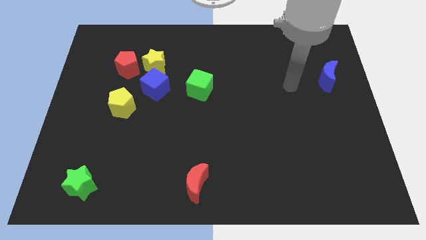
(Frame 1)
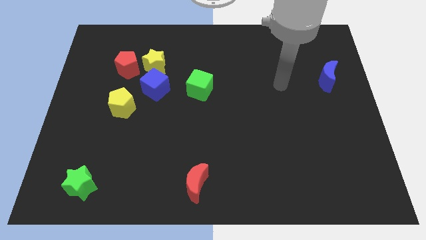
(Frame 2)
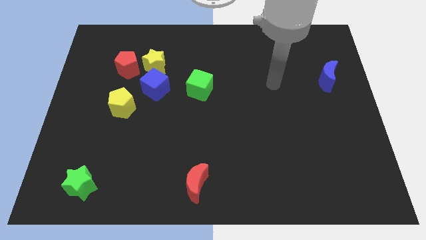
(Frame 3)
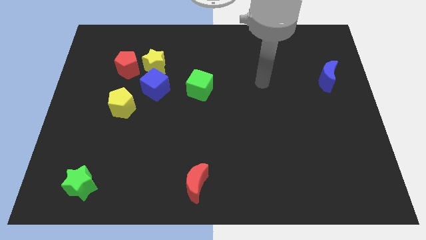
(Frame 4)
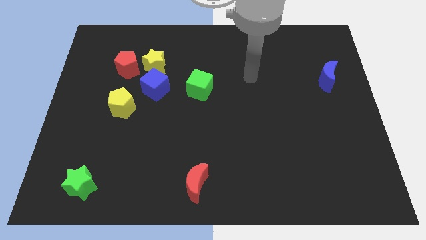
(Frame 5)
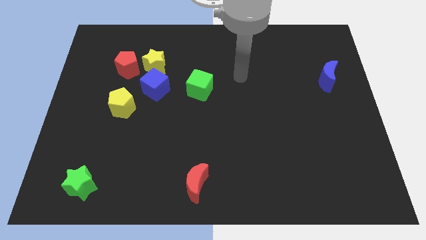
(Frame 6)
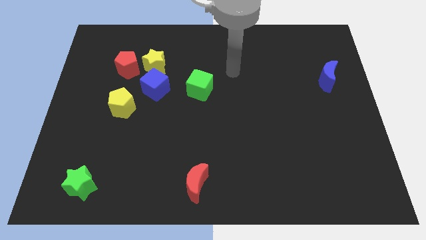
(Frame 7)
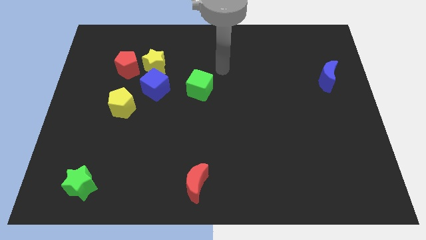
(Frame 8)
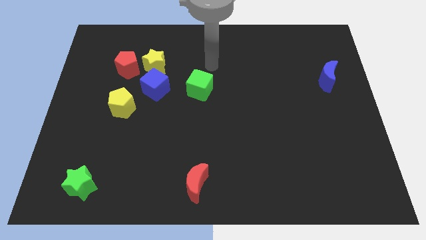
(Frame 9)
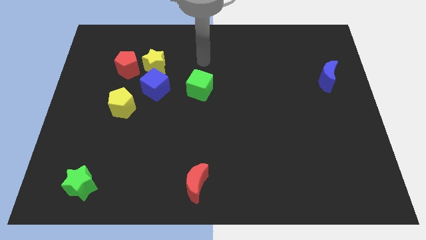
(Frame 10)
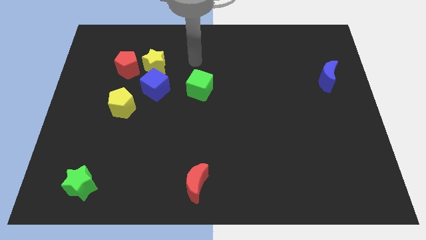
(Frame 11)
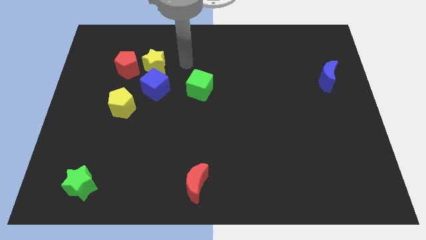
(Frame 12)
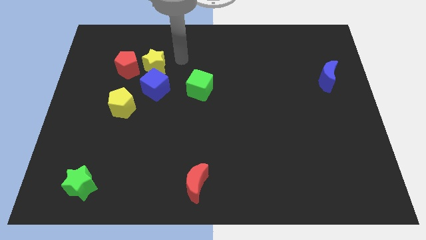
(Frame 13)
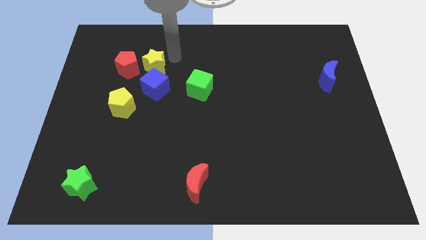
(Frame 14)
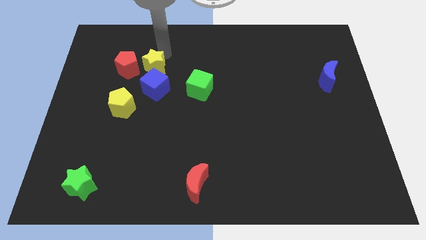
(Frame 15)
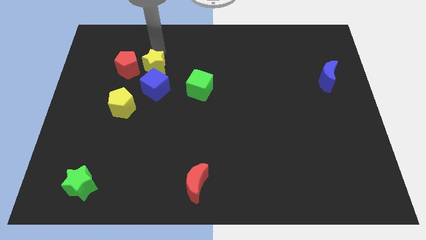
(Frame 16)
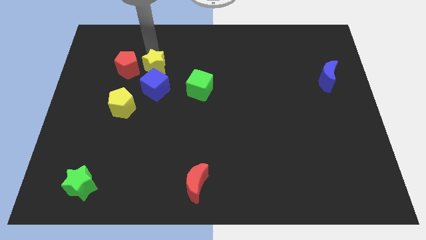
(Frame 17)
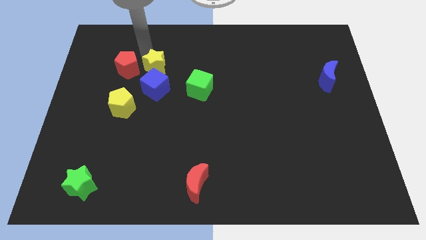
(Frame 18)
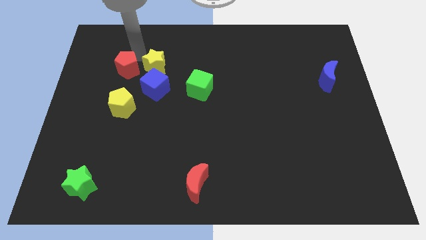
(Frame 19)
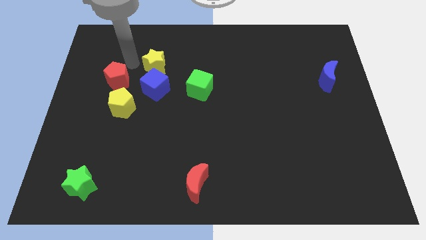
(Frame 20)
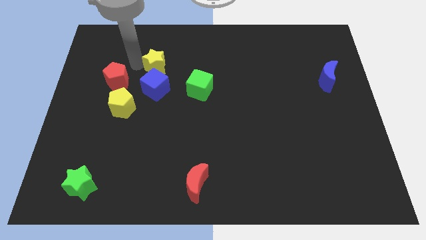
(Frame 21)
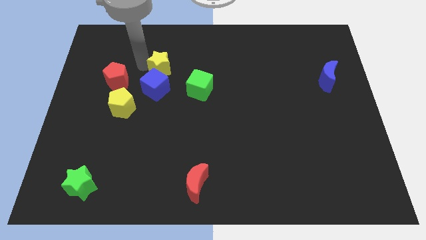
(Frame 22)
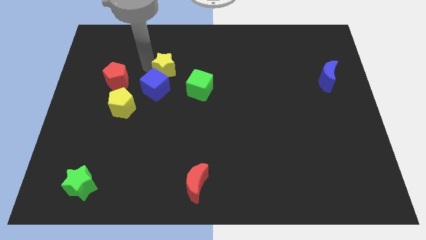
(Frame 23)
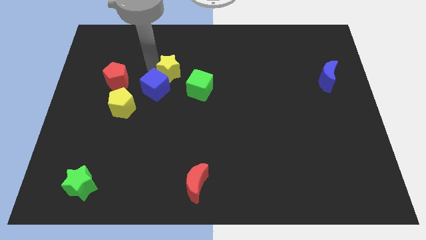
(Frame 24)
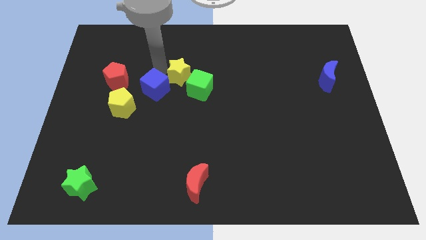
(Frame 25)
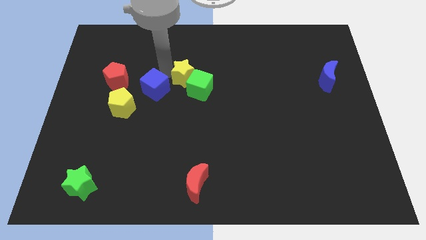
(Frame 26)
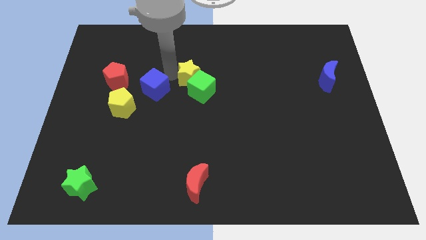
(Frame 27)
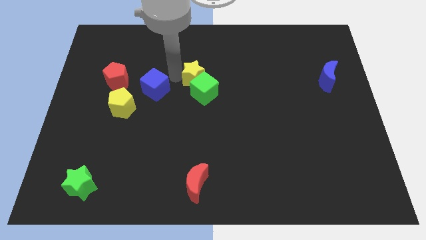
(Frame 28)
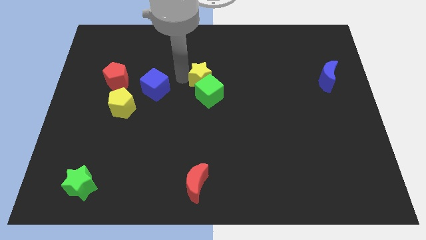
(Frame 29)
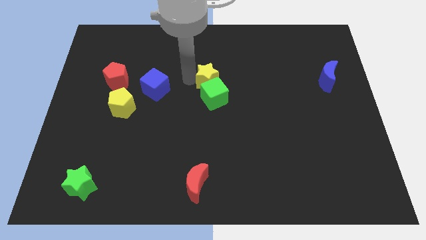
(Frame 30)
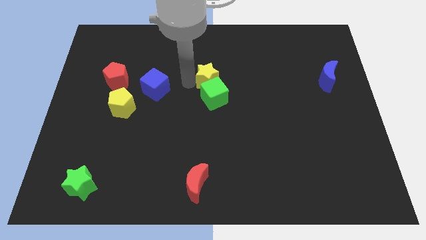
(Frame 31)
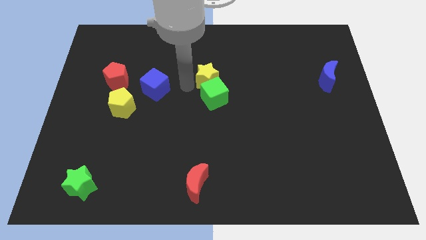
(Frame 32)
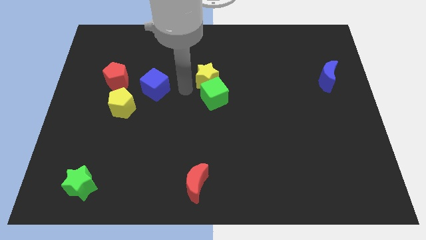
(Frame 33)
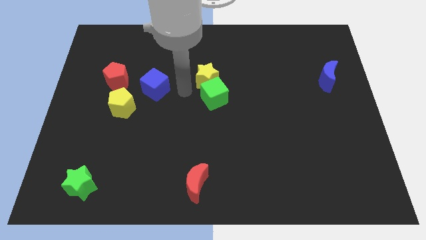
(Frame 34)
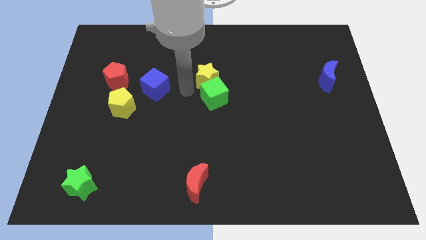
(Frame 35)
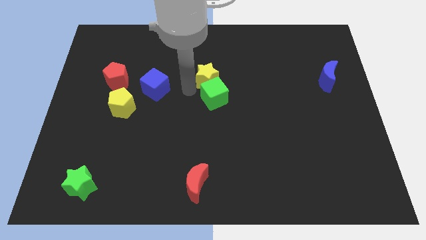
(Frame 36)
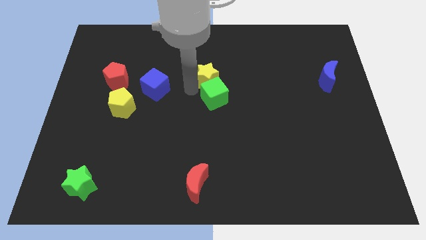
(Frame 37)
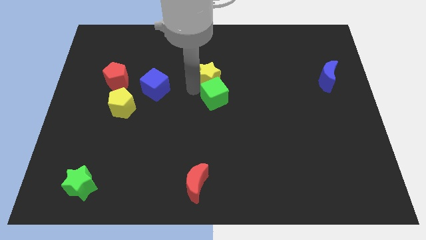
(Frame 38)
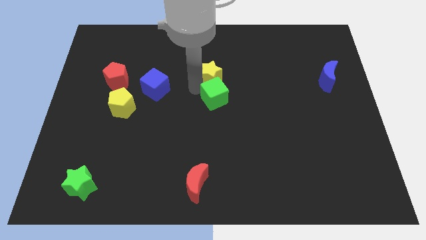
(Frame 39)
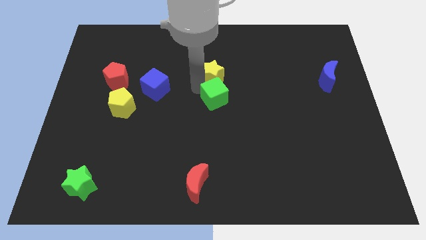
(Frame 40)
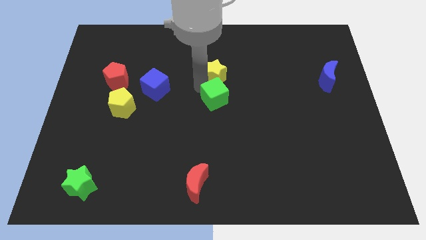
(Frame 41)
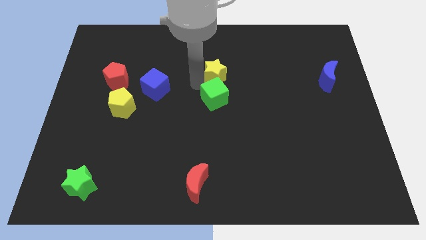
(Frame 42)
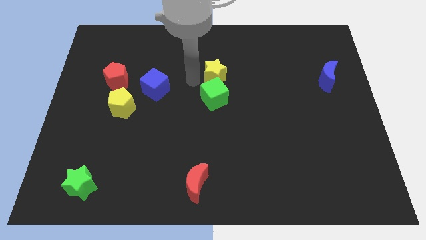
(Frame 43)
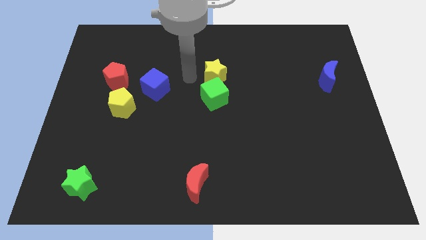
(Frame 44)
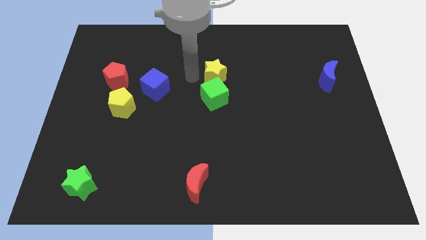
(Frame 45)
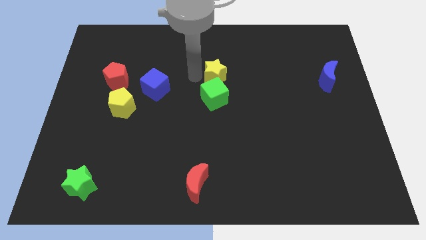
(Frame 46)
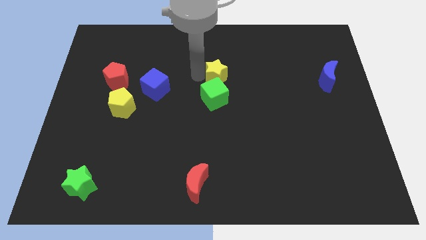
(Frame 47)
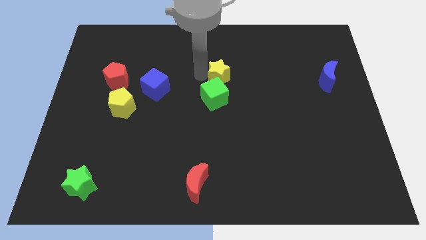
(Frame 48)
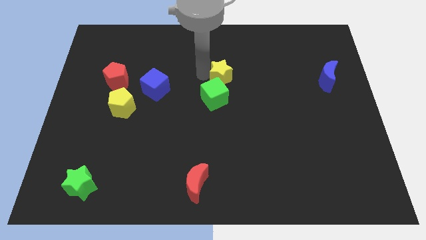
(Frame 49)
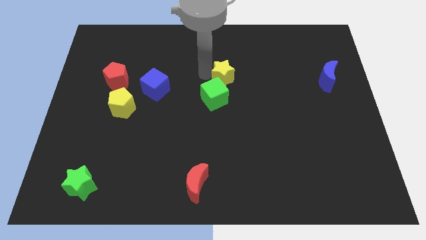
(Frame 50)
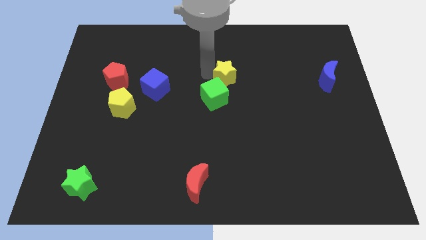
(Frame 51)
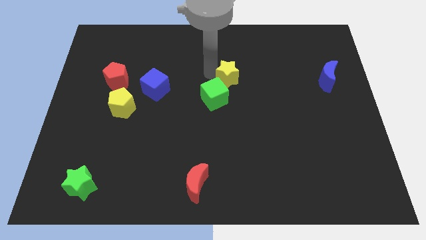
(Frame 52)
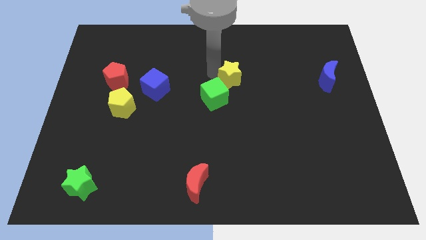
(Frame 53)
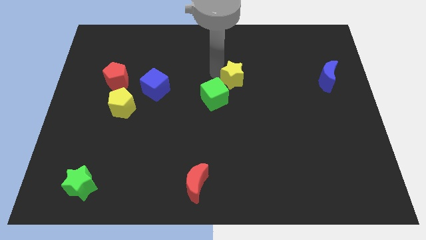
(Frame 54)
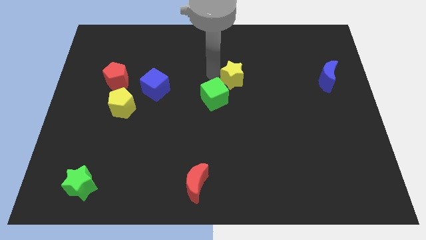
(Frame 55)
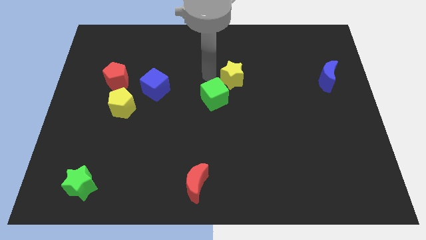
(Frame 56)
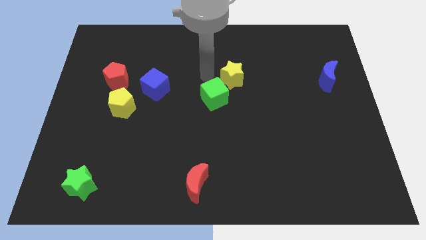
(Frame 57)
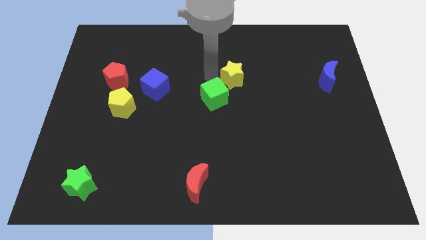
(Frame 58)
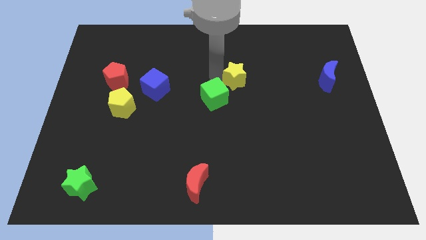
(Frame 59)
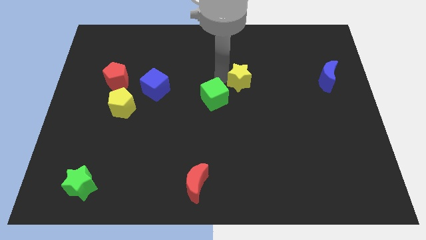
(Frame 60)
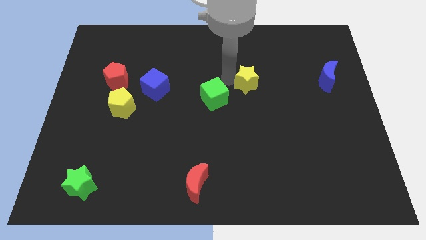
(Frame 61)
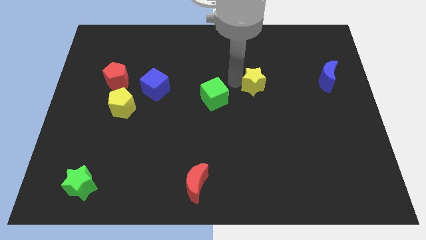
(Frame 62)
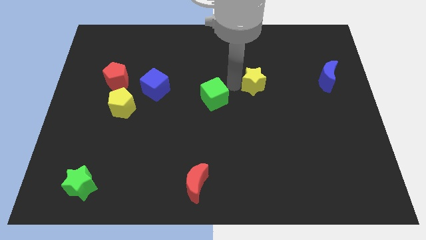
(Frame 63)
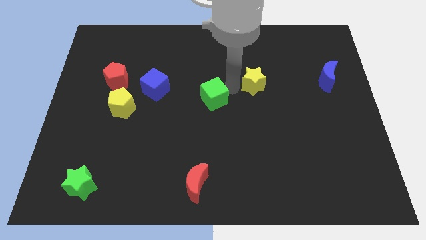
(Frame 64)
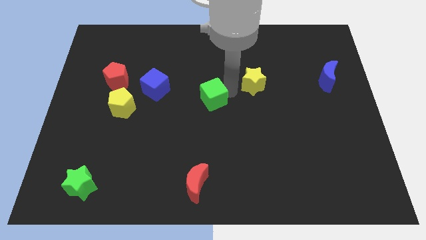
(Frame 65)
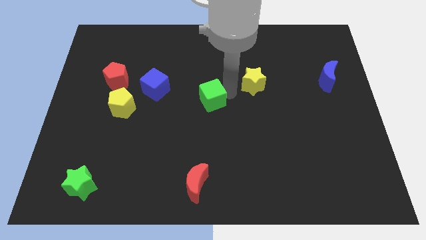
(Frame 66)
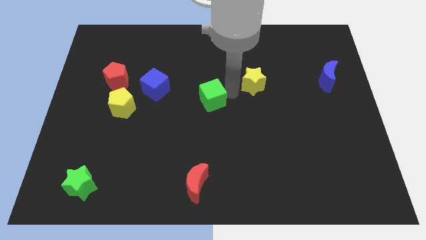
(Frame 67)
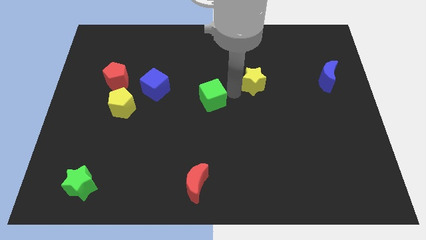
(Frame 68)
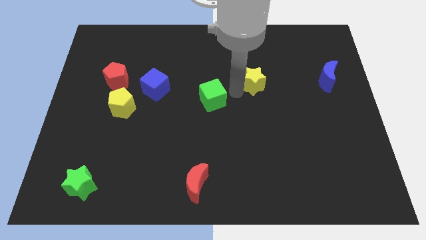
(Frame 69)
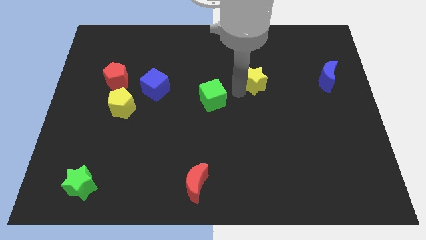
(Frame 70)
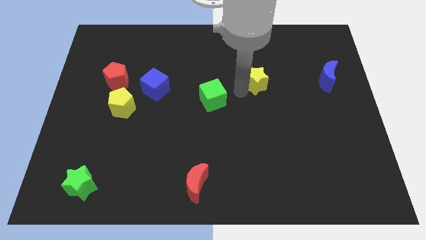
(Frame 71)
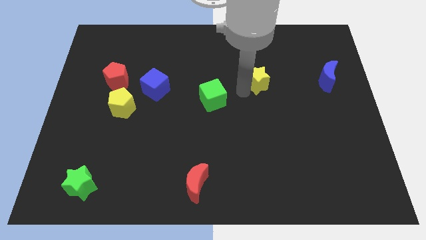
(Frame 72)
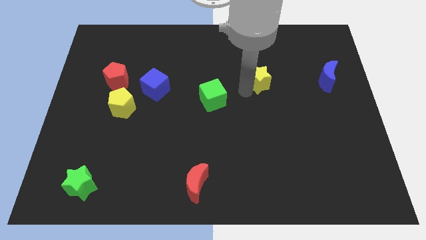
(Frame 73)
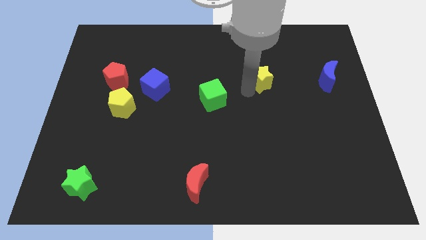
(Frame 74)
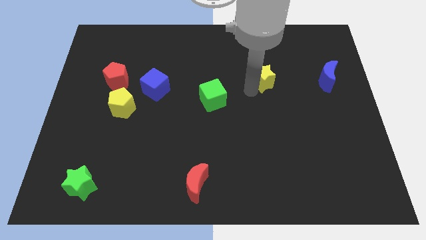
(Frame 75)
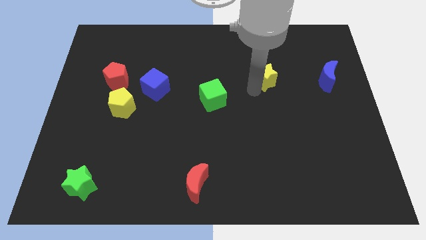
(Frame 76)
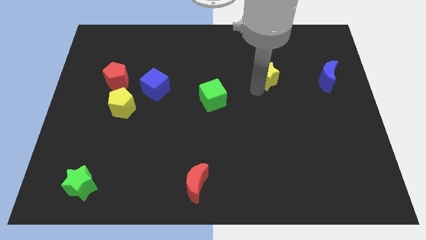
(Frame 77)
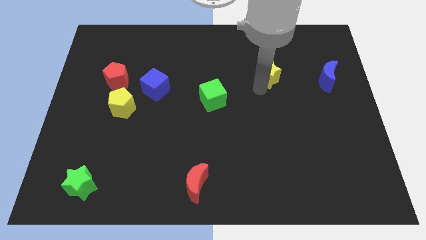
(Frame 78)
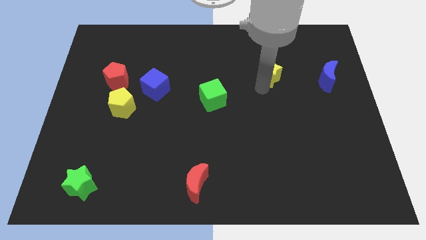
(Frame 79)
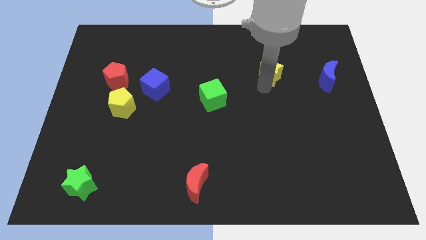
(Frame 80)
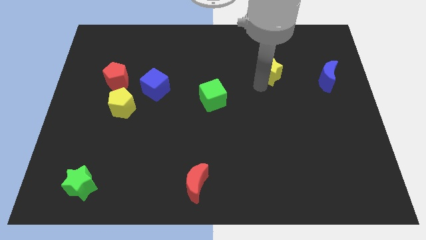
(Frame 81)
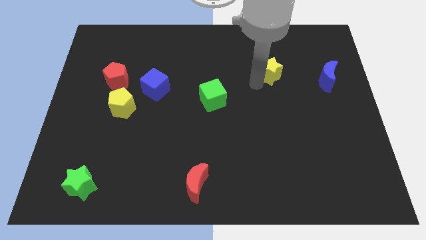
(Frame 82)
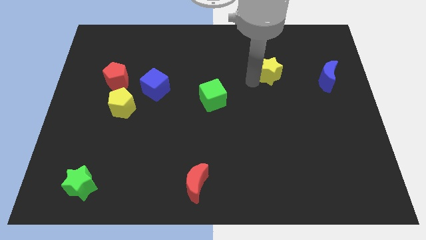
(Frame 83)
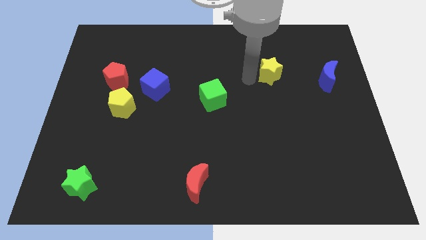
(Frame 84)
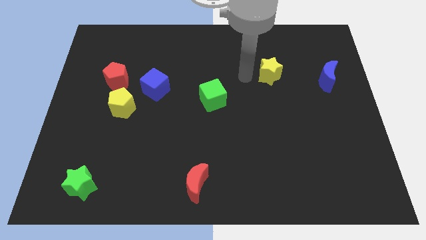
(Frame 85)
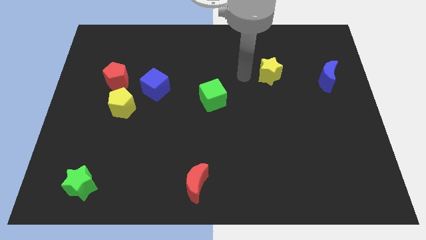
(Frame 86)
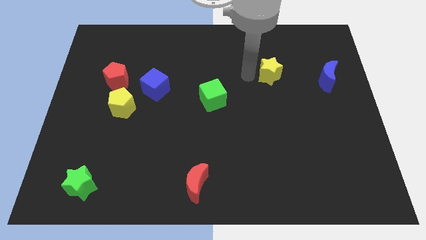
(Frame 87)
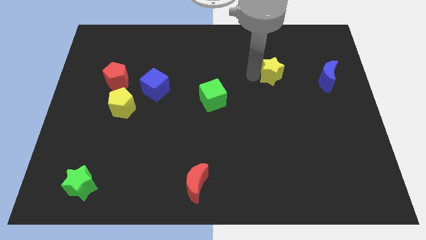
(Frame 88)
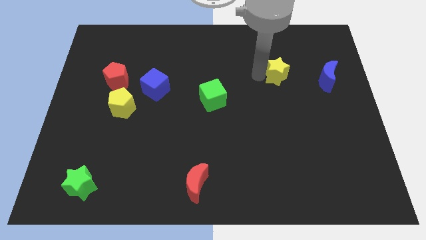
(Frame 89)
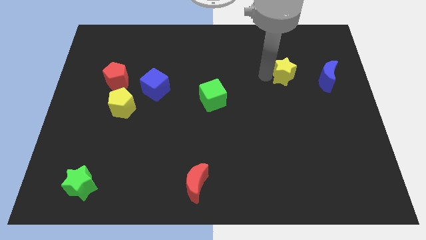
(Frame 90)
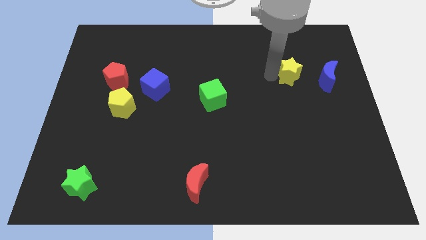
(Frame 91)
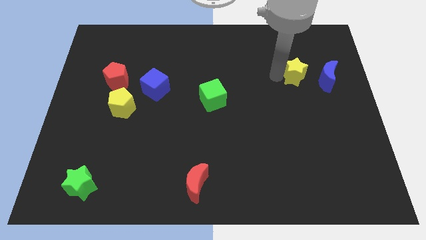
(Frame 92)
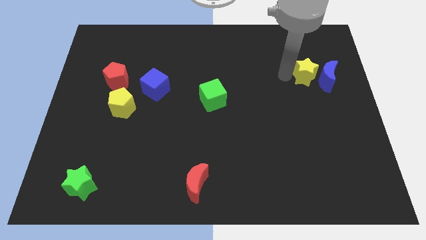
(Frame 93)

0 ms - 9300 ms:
push the yellow star next to the blue moon
